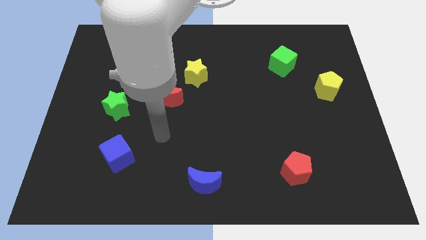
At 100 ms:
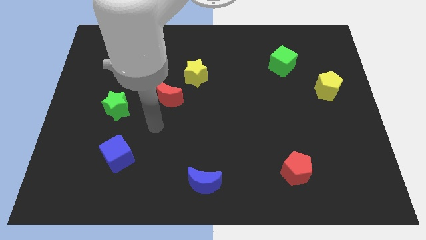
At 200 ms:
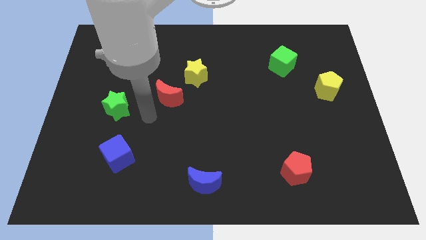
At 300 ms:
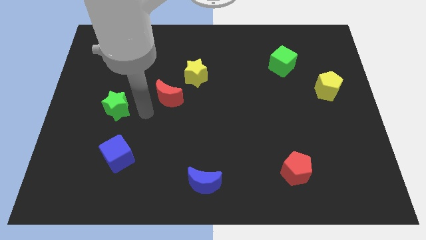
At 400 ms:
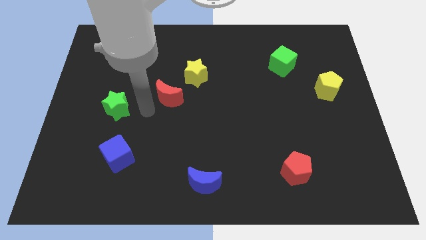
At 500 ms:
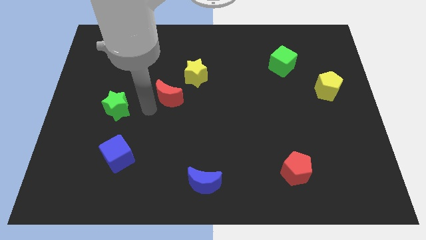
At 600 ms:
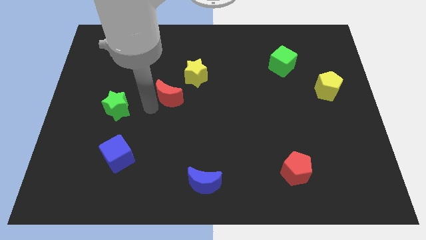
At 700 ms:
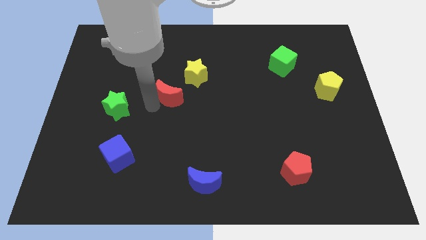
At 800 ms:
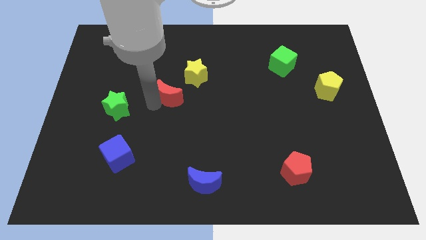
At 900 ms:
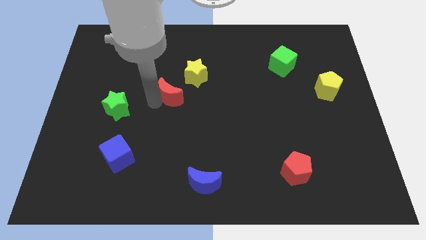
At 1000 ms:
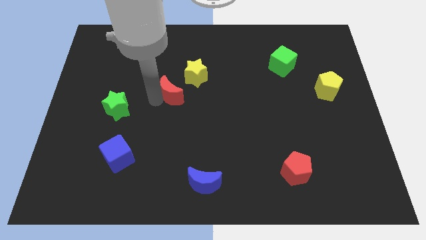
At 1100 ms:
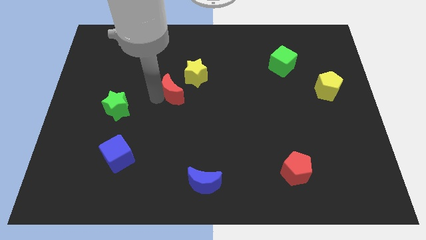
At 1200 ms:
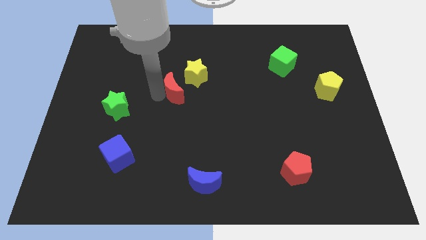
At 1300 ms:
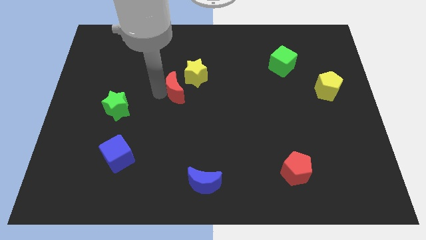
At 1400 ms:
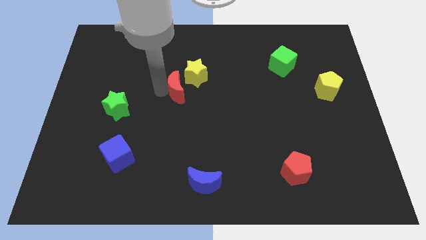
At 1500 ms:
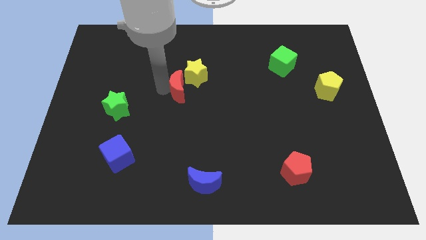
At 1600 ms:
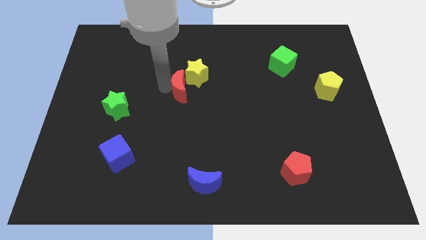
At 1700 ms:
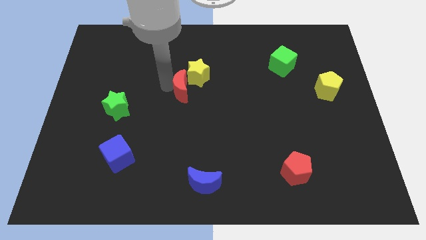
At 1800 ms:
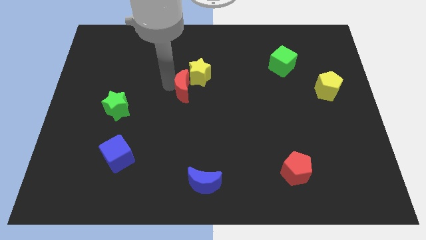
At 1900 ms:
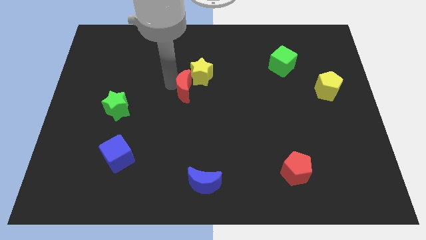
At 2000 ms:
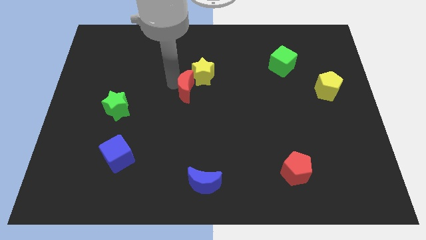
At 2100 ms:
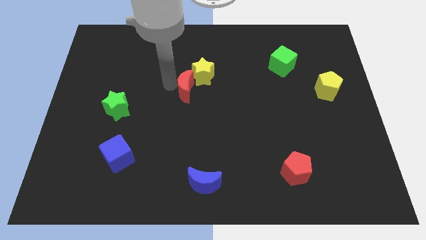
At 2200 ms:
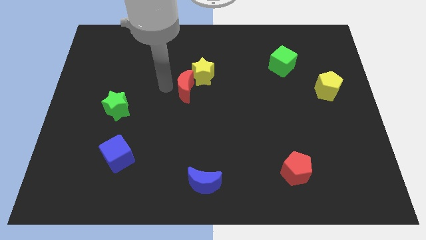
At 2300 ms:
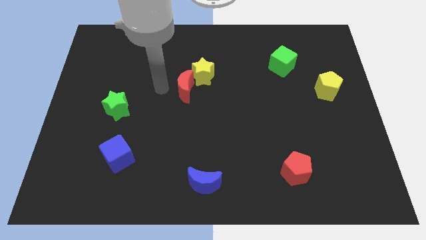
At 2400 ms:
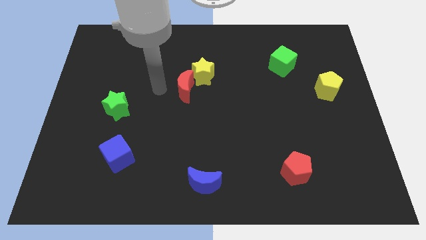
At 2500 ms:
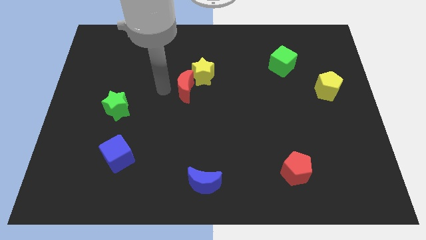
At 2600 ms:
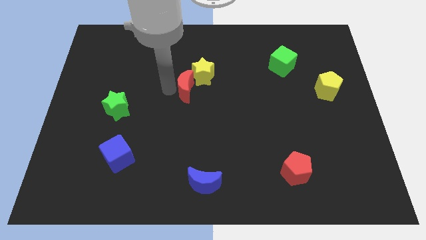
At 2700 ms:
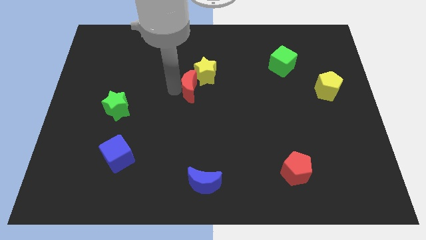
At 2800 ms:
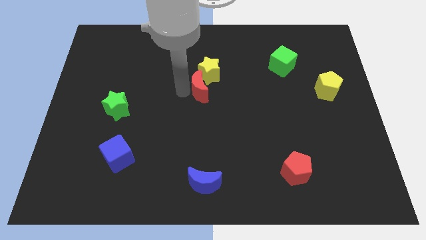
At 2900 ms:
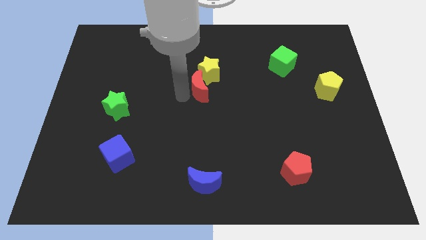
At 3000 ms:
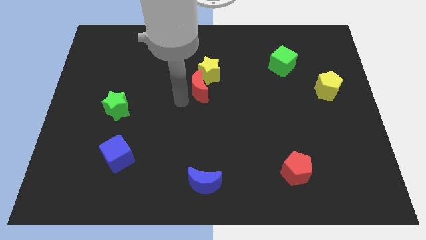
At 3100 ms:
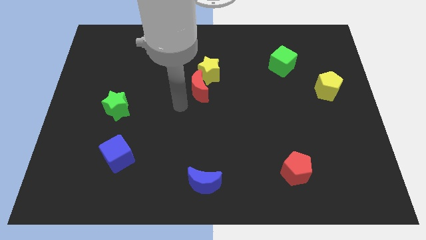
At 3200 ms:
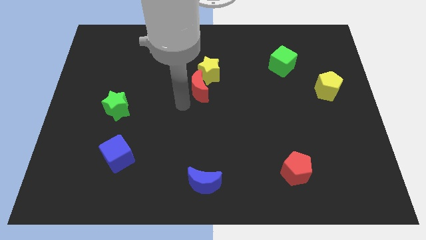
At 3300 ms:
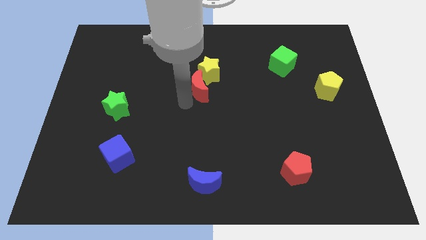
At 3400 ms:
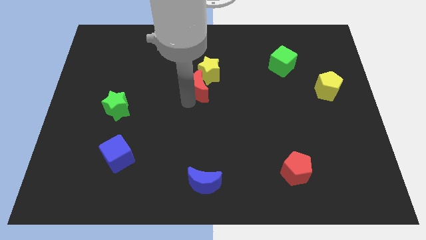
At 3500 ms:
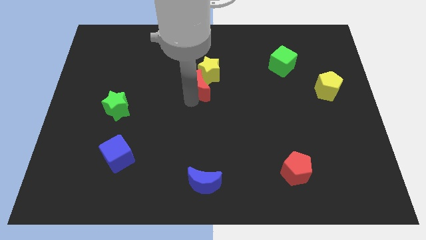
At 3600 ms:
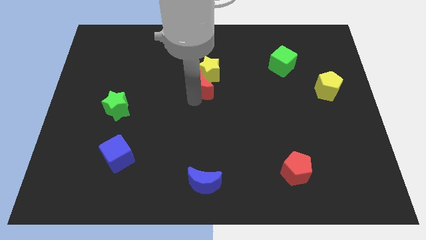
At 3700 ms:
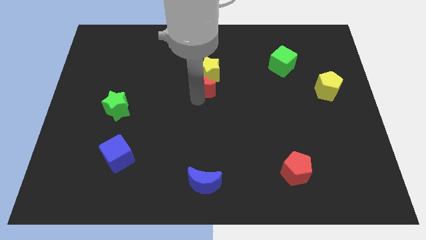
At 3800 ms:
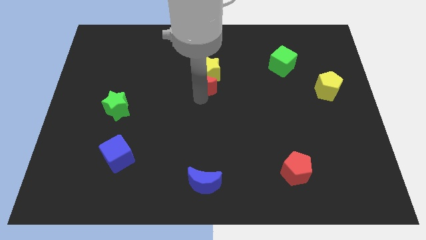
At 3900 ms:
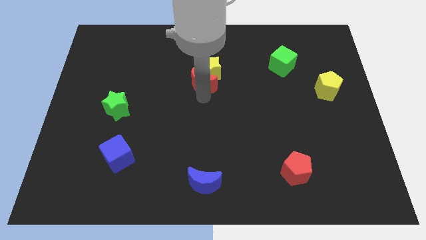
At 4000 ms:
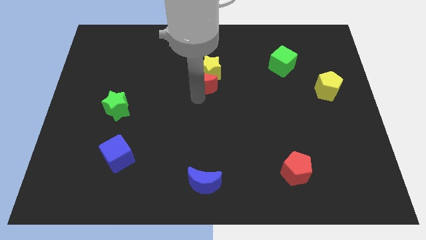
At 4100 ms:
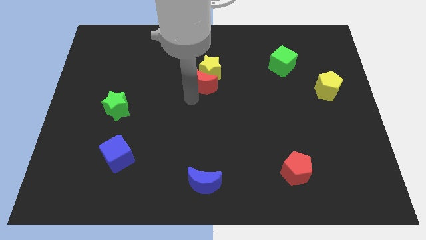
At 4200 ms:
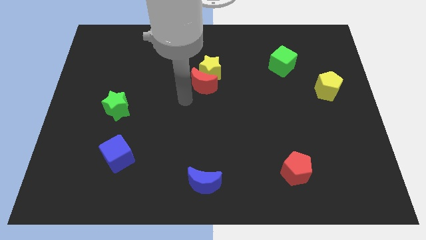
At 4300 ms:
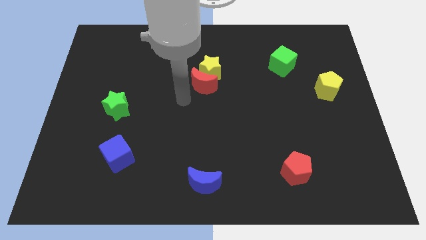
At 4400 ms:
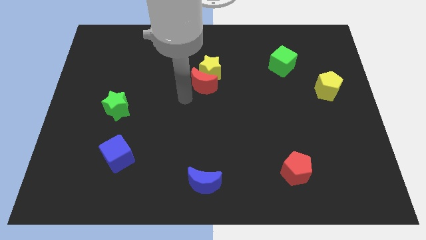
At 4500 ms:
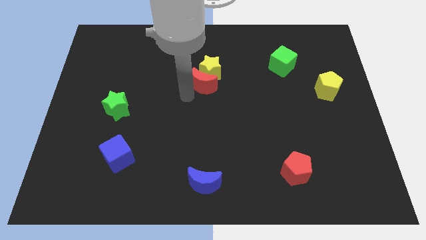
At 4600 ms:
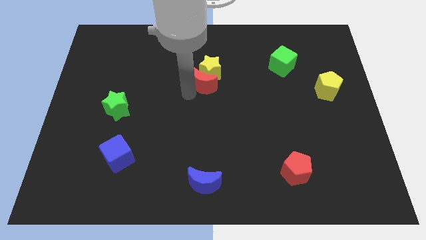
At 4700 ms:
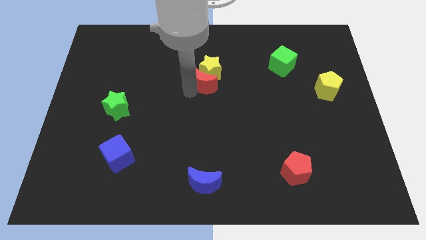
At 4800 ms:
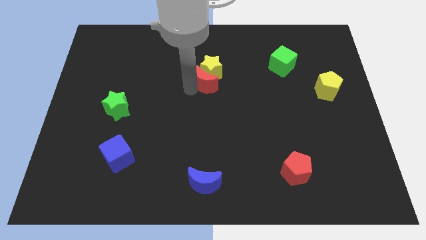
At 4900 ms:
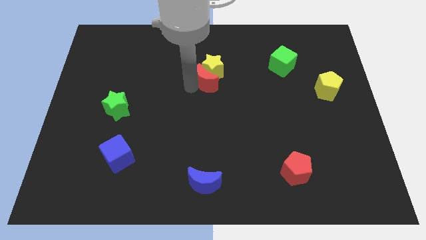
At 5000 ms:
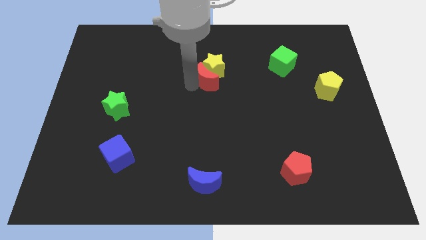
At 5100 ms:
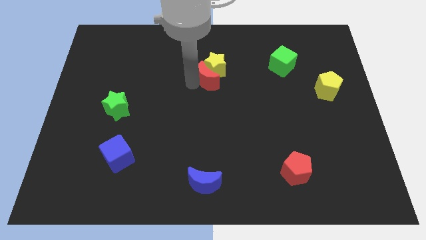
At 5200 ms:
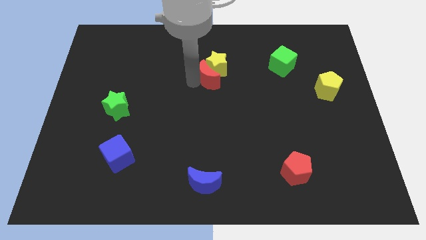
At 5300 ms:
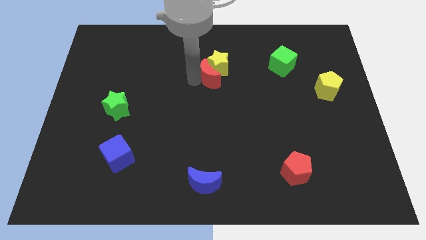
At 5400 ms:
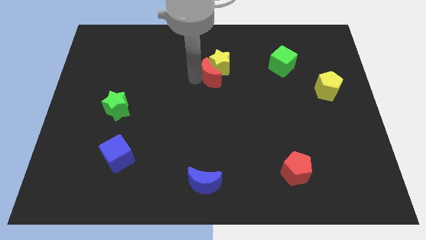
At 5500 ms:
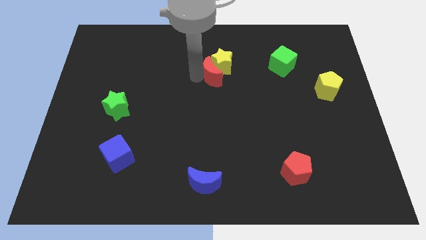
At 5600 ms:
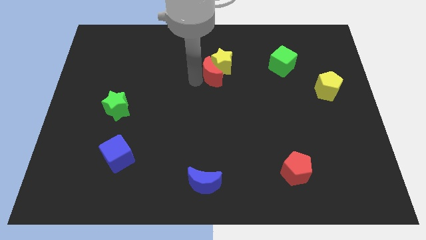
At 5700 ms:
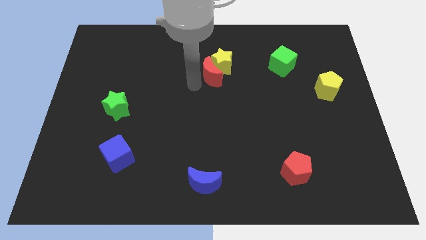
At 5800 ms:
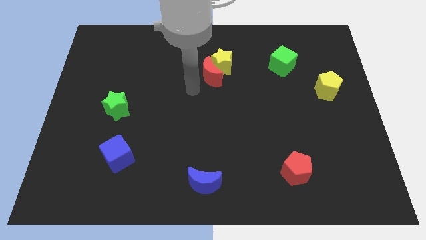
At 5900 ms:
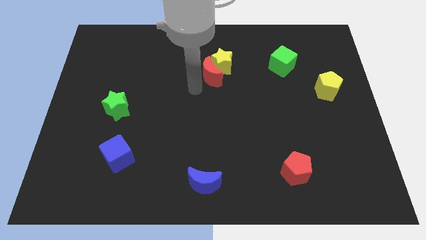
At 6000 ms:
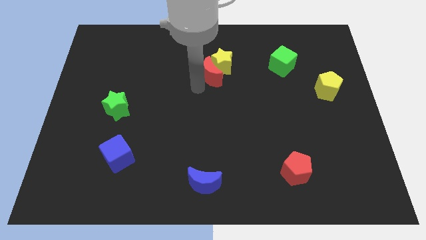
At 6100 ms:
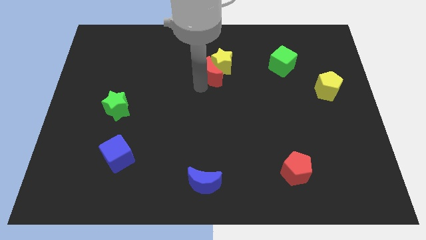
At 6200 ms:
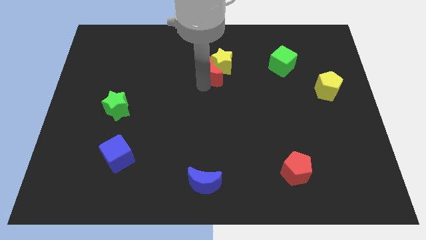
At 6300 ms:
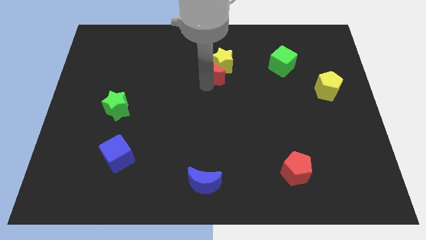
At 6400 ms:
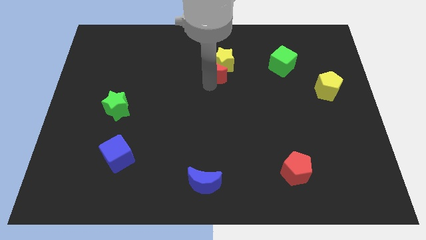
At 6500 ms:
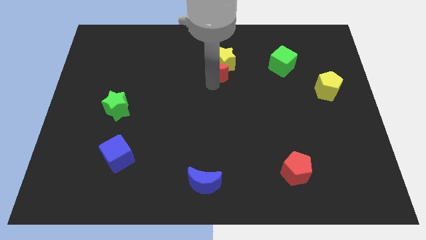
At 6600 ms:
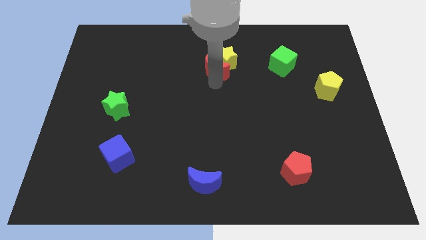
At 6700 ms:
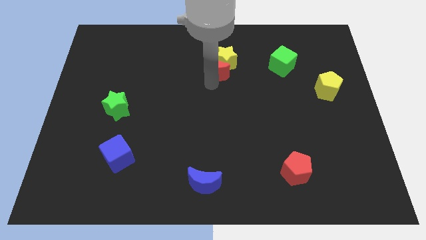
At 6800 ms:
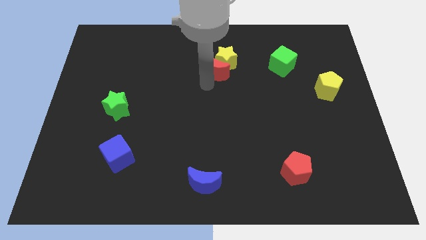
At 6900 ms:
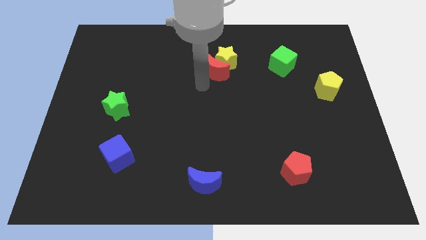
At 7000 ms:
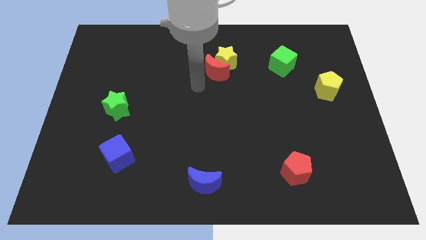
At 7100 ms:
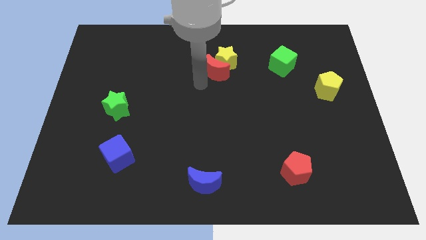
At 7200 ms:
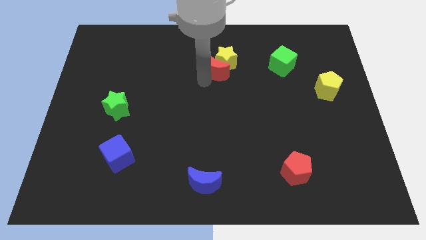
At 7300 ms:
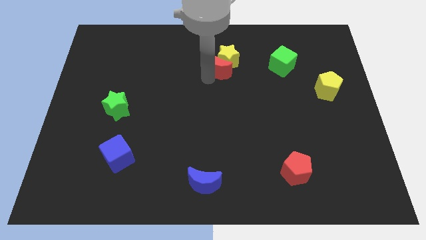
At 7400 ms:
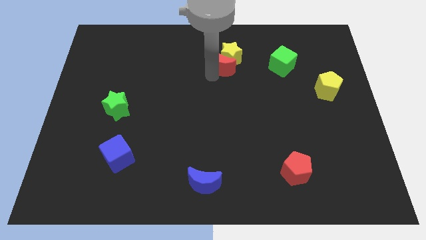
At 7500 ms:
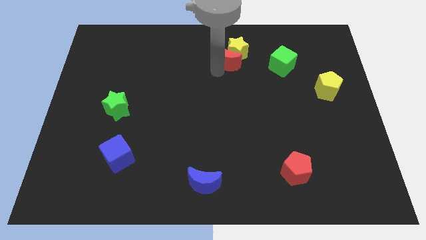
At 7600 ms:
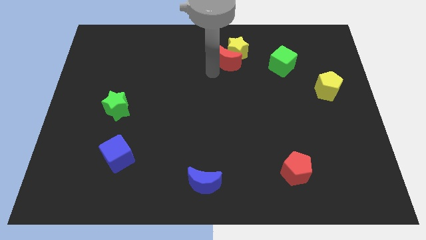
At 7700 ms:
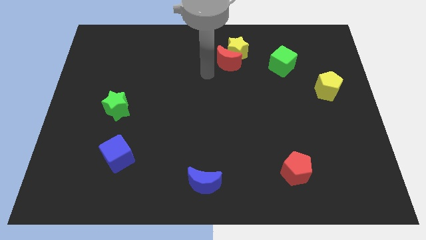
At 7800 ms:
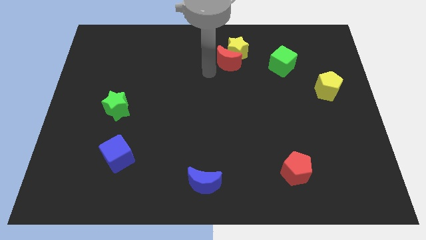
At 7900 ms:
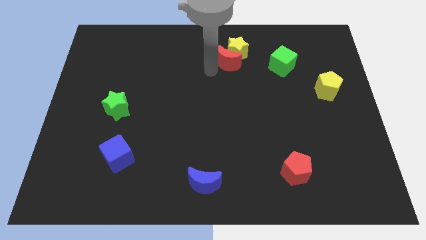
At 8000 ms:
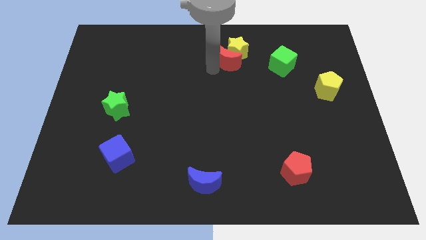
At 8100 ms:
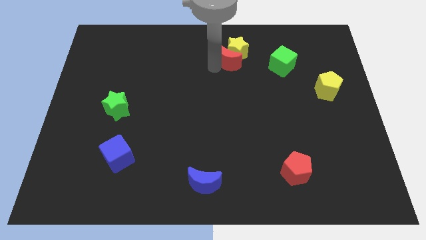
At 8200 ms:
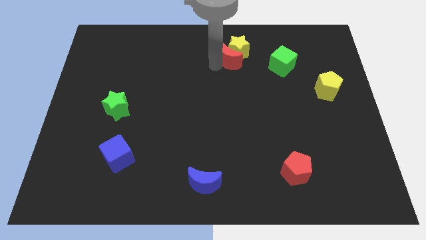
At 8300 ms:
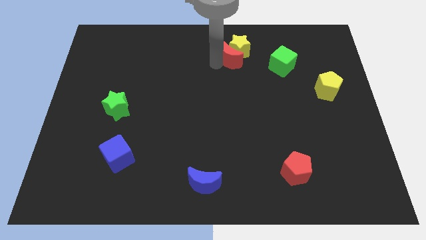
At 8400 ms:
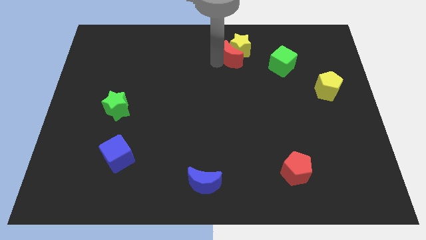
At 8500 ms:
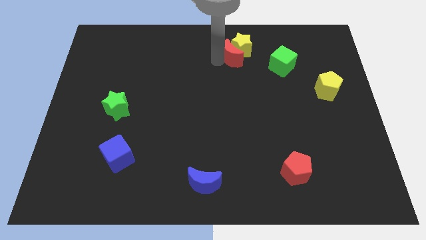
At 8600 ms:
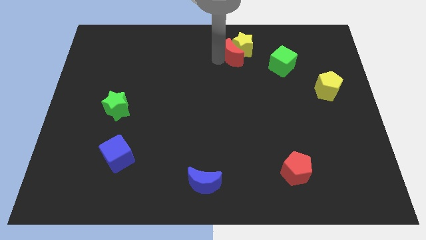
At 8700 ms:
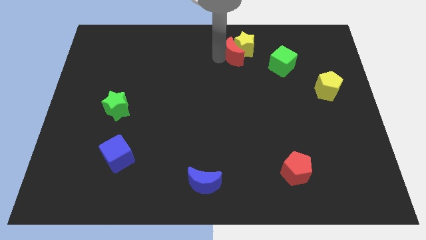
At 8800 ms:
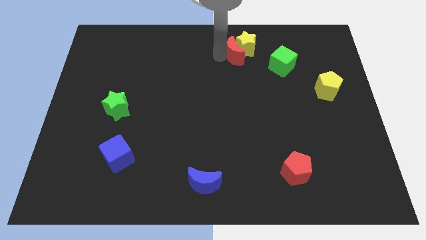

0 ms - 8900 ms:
slide the red moon to the top side
